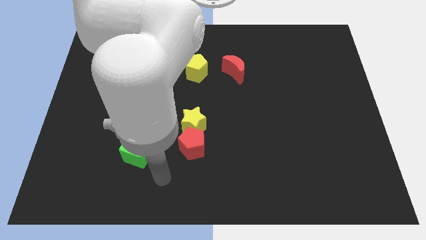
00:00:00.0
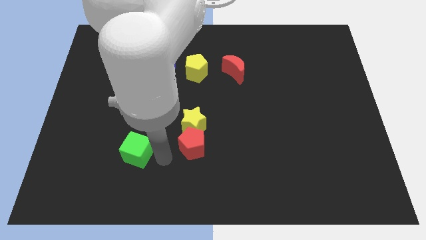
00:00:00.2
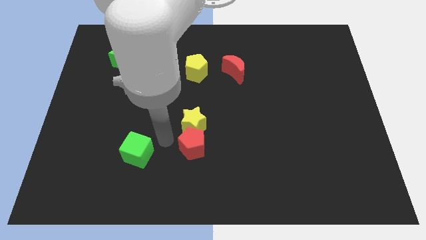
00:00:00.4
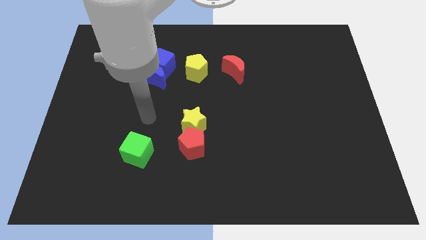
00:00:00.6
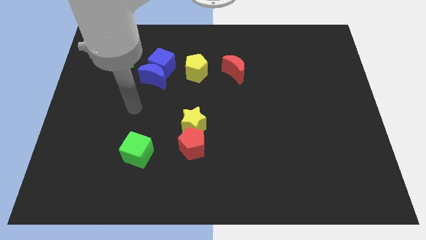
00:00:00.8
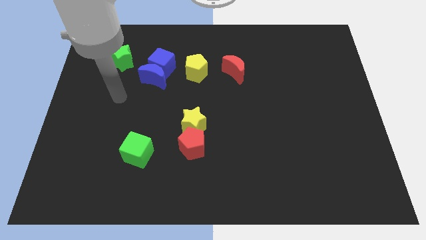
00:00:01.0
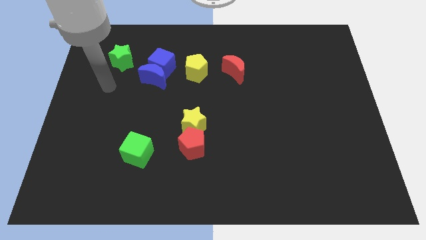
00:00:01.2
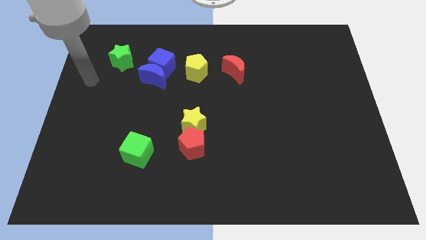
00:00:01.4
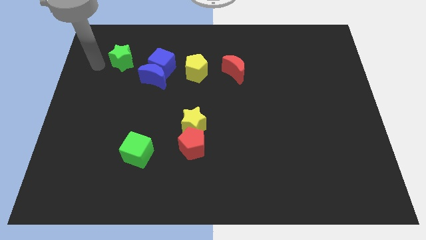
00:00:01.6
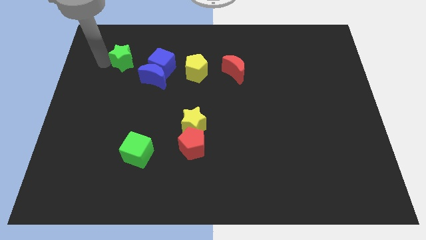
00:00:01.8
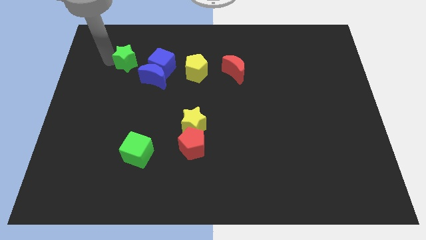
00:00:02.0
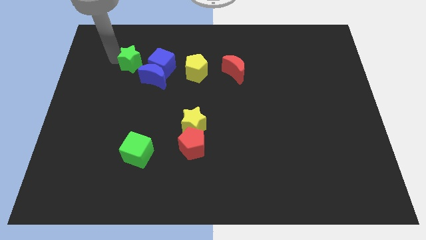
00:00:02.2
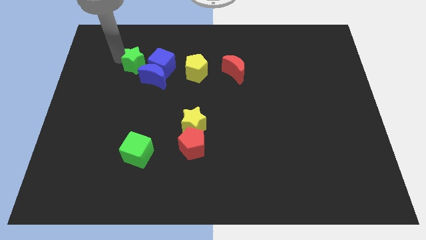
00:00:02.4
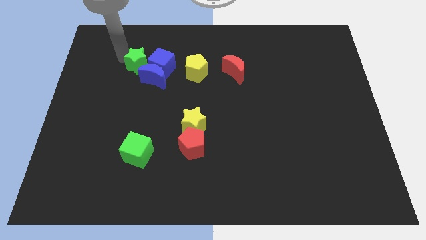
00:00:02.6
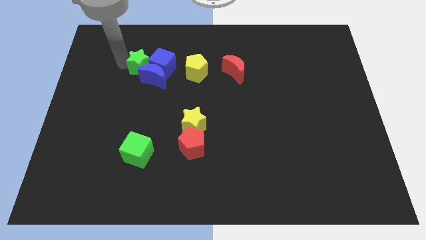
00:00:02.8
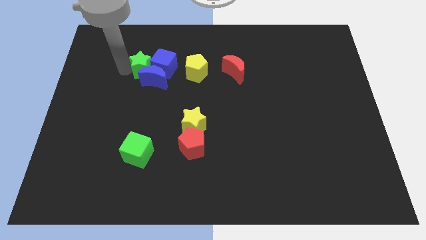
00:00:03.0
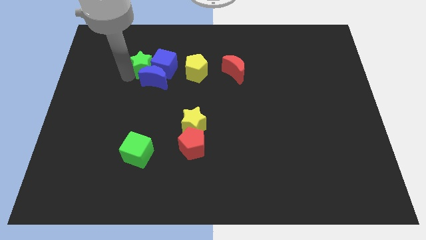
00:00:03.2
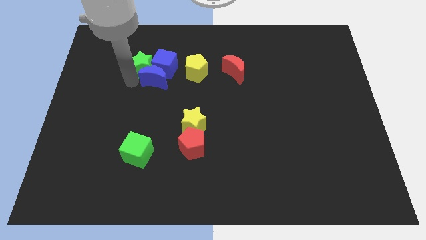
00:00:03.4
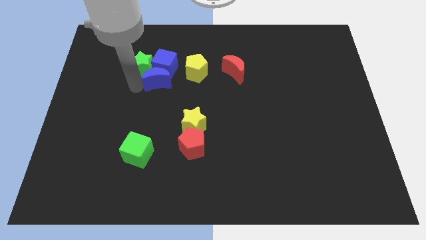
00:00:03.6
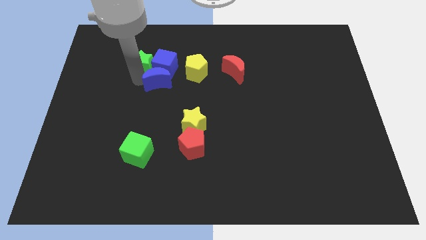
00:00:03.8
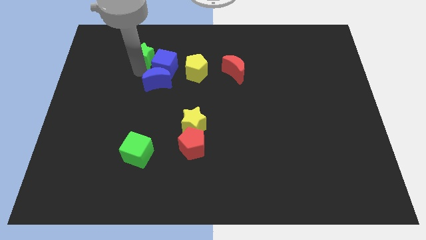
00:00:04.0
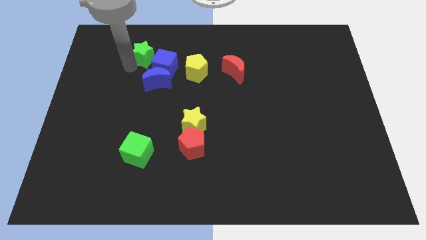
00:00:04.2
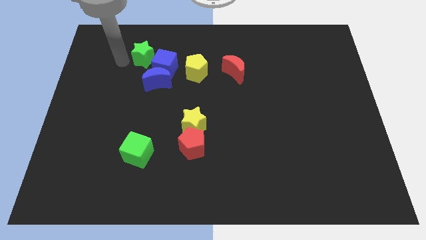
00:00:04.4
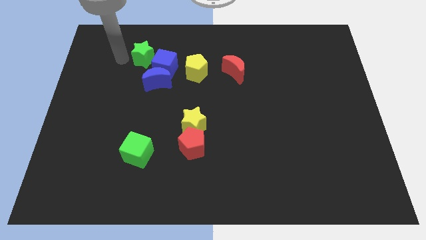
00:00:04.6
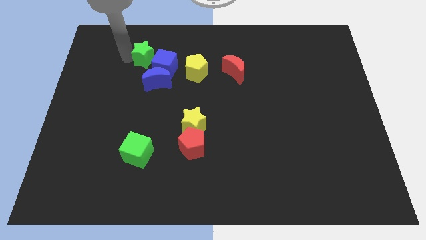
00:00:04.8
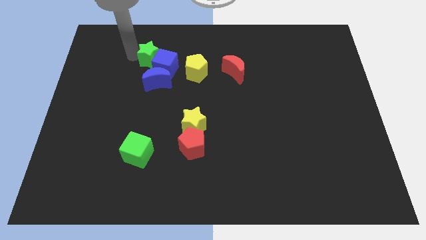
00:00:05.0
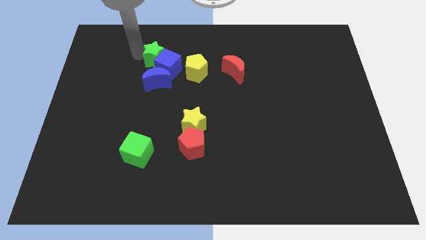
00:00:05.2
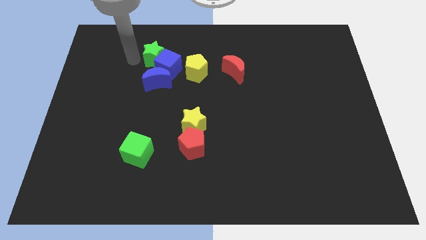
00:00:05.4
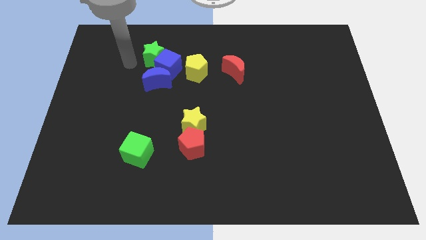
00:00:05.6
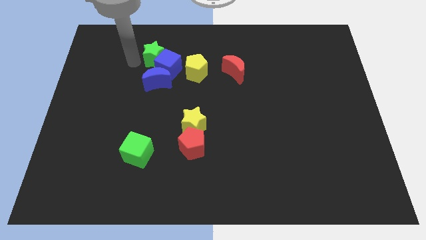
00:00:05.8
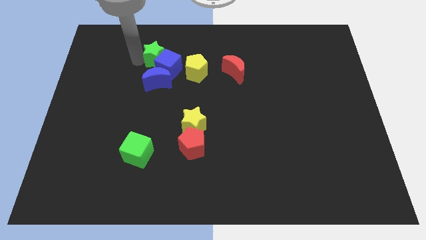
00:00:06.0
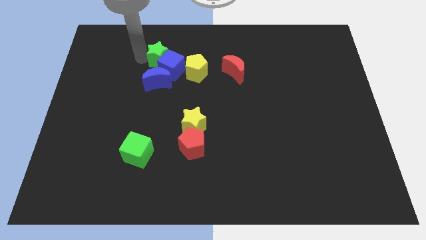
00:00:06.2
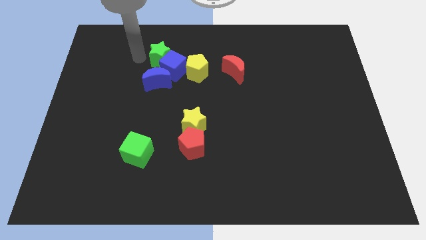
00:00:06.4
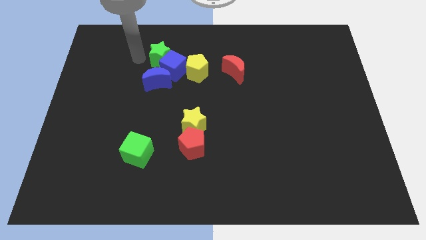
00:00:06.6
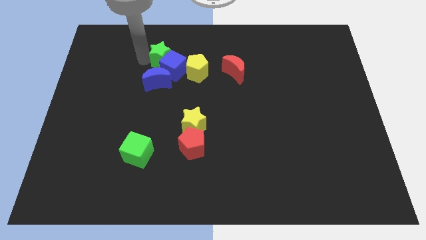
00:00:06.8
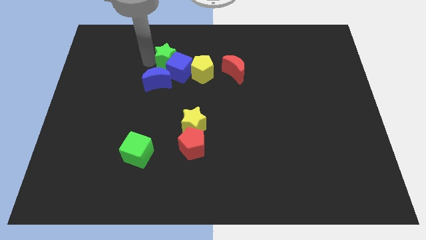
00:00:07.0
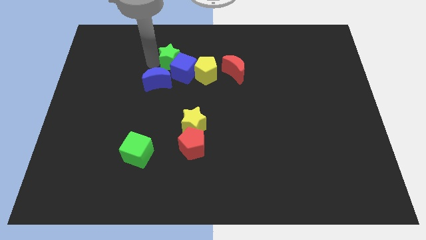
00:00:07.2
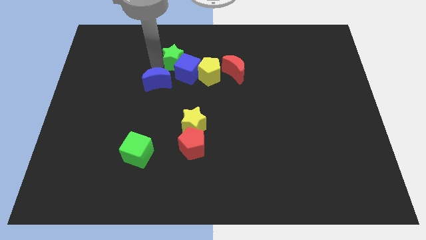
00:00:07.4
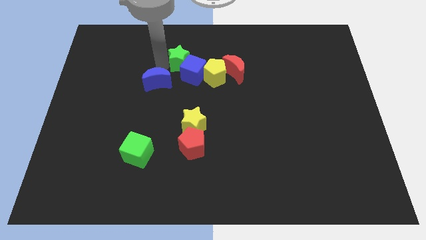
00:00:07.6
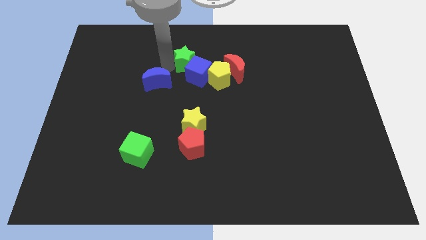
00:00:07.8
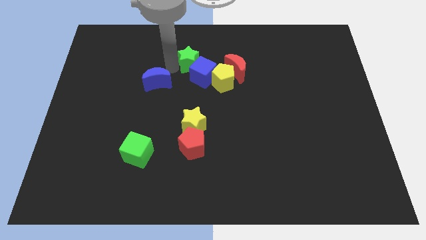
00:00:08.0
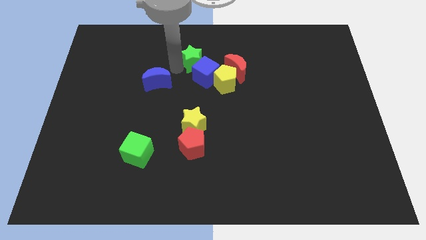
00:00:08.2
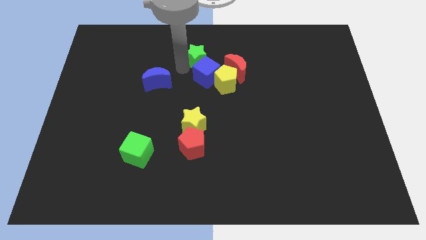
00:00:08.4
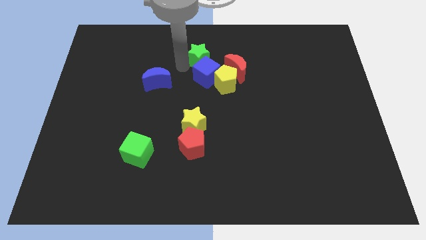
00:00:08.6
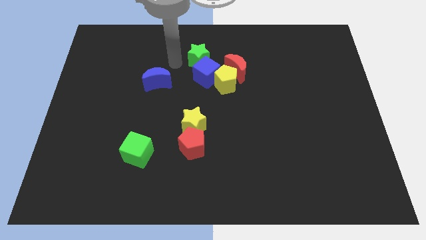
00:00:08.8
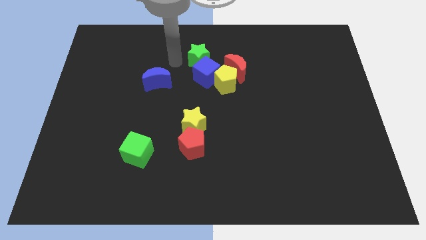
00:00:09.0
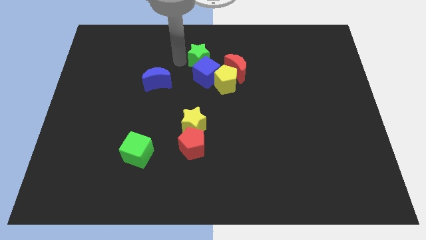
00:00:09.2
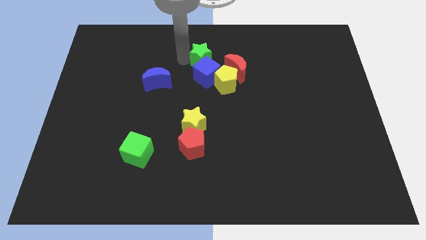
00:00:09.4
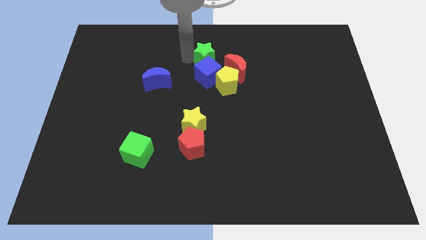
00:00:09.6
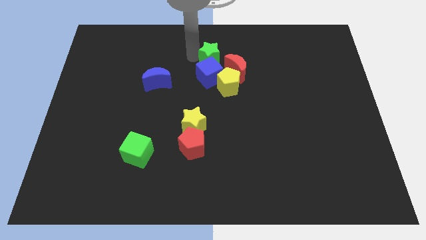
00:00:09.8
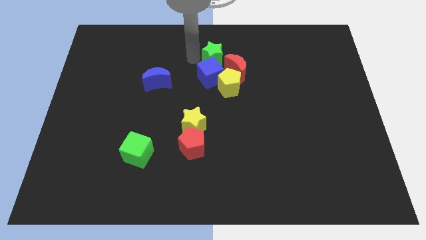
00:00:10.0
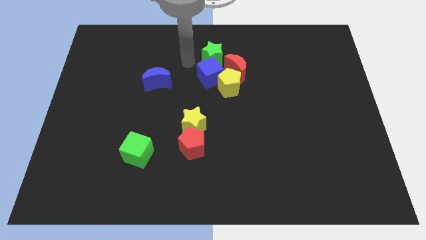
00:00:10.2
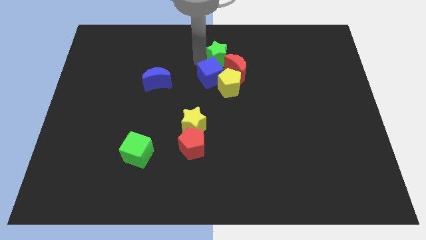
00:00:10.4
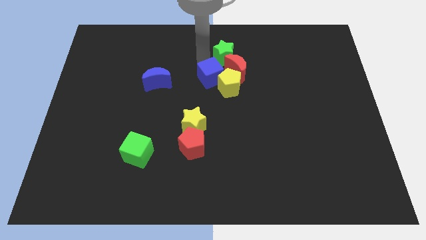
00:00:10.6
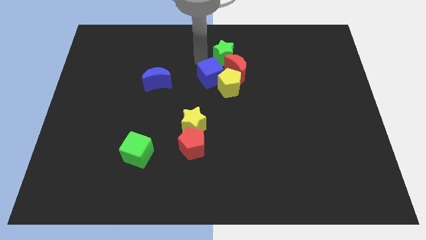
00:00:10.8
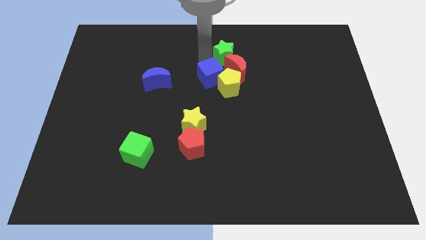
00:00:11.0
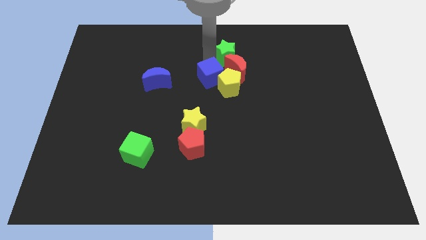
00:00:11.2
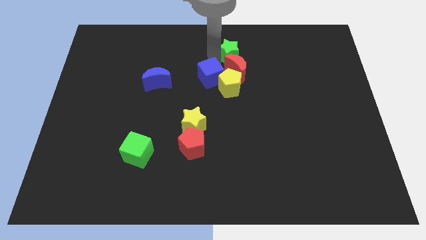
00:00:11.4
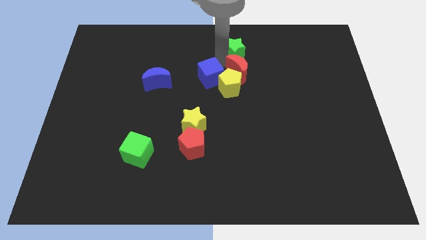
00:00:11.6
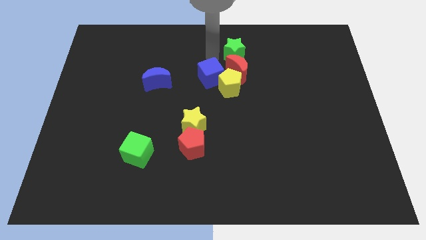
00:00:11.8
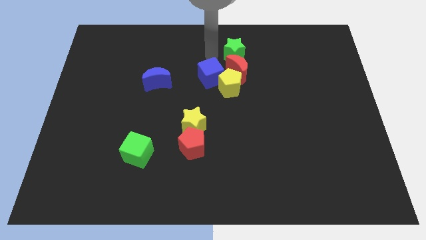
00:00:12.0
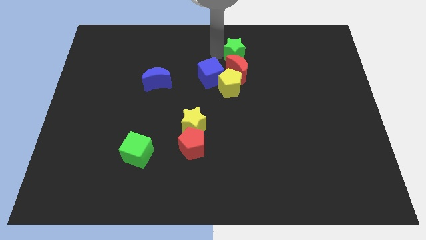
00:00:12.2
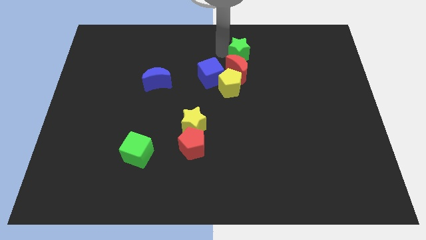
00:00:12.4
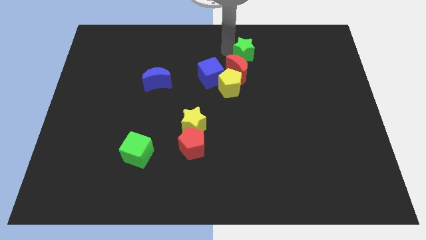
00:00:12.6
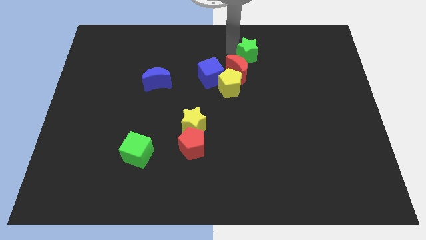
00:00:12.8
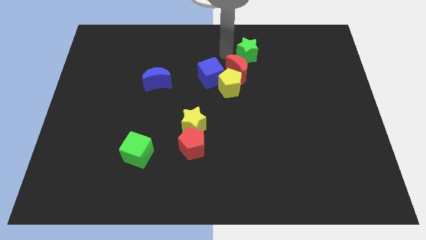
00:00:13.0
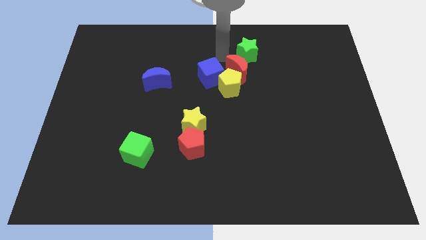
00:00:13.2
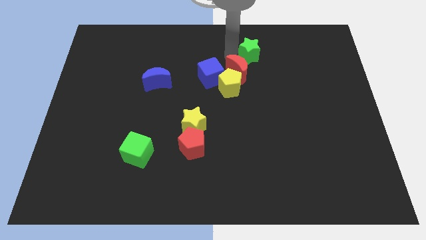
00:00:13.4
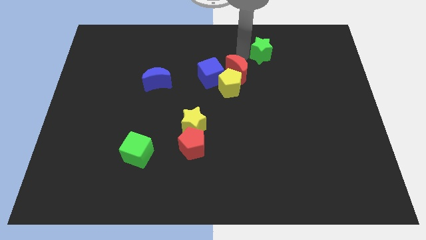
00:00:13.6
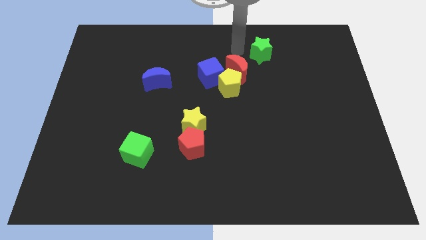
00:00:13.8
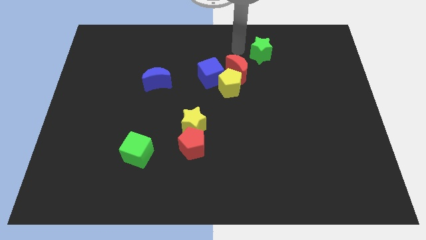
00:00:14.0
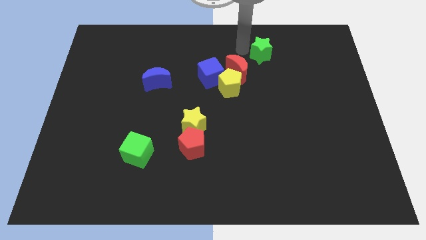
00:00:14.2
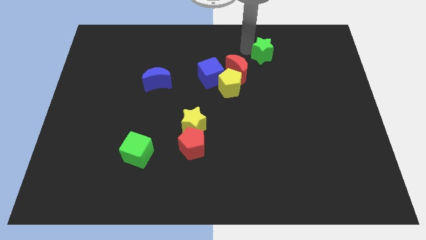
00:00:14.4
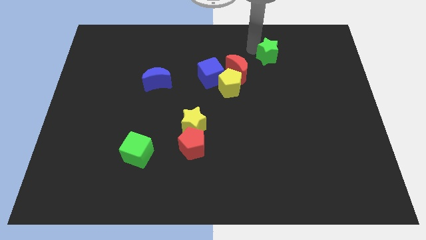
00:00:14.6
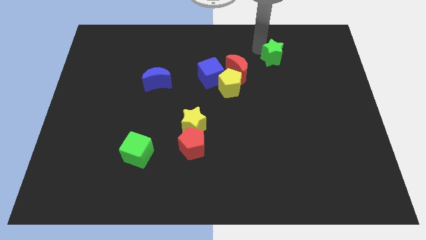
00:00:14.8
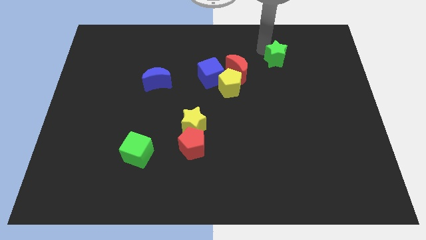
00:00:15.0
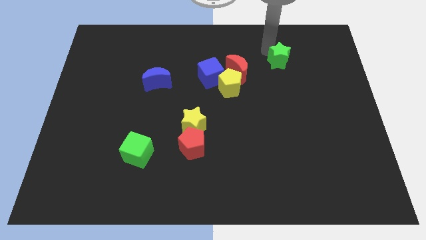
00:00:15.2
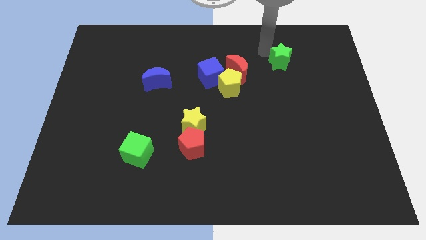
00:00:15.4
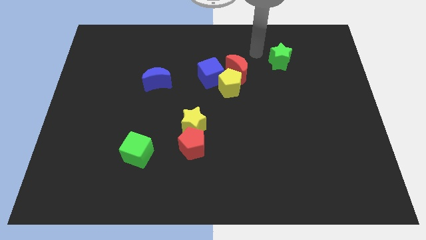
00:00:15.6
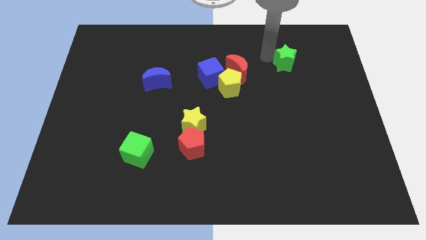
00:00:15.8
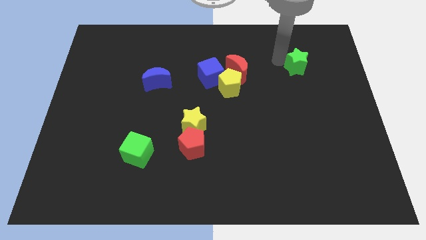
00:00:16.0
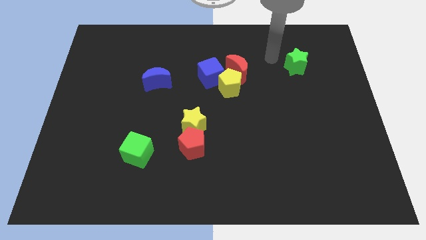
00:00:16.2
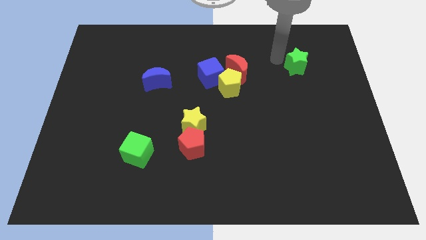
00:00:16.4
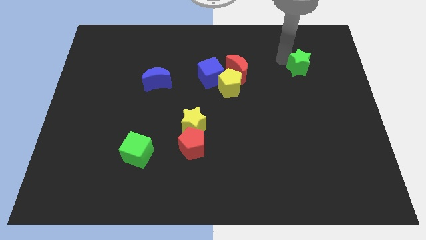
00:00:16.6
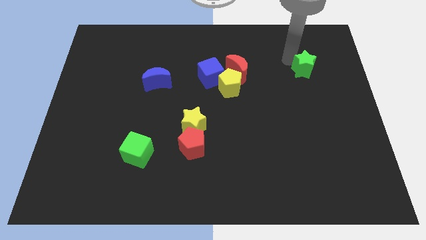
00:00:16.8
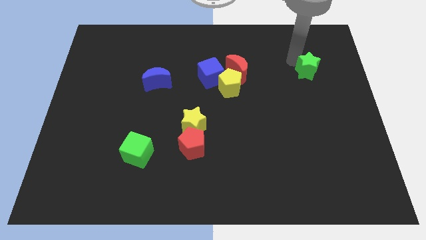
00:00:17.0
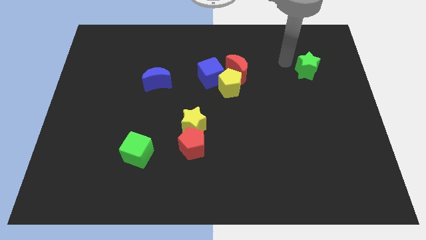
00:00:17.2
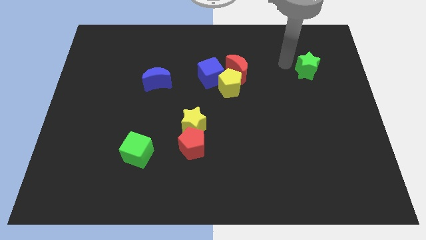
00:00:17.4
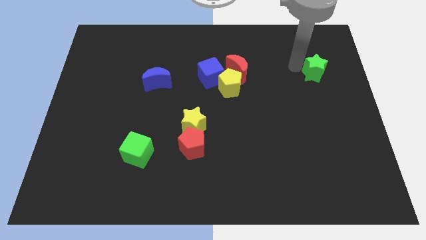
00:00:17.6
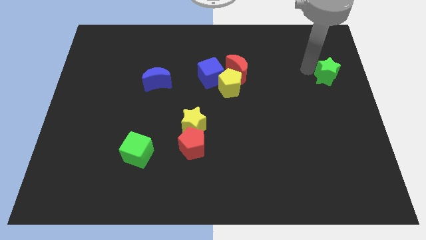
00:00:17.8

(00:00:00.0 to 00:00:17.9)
put the green star to the center right
